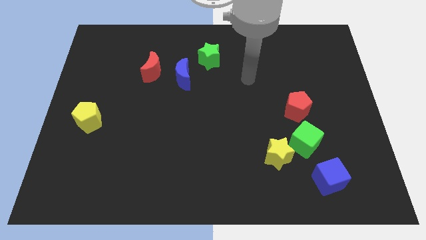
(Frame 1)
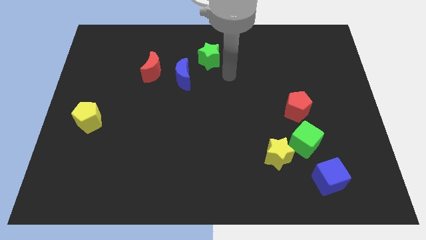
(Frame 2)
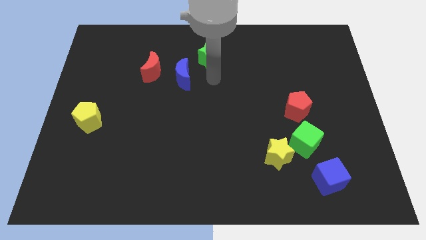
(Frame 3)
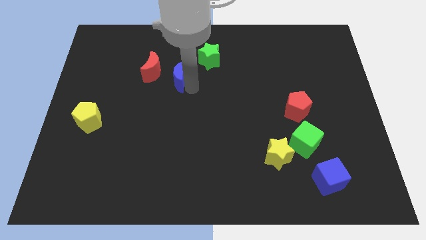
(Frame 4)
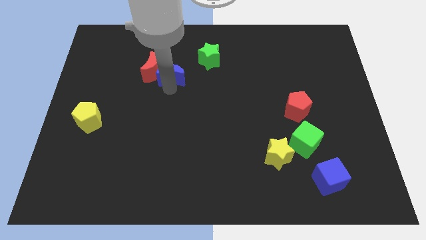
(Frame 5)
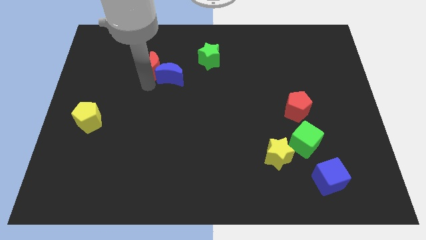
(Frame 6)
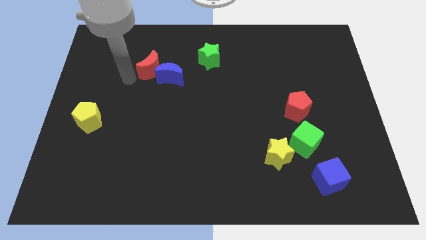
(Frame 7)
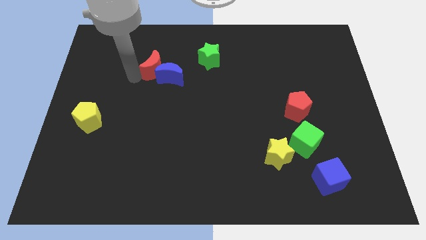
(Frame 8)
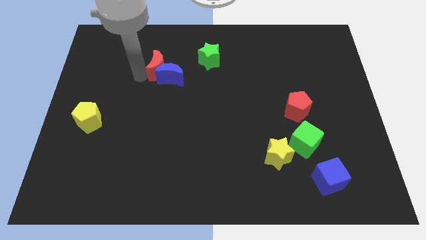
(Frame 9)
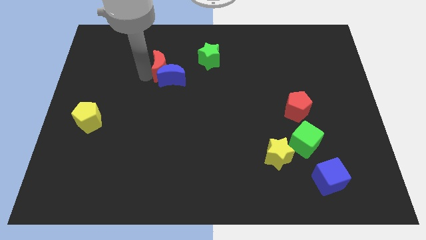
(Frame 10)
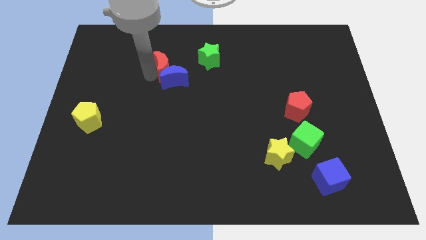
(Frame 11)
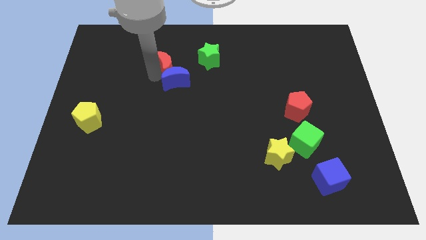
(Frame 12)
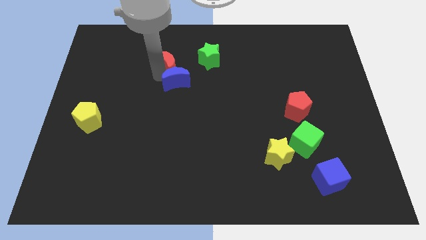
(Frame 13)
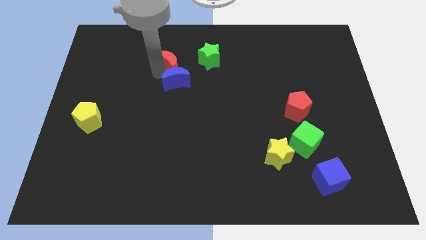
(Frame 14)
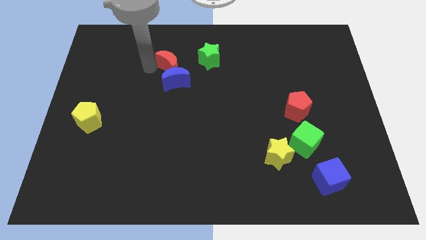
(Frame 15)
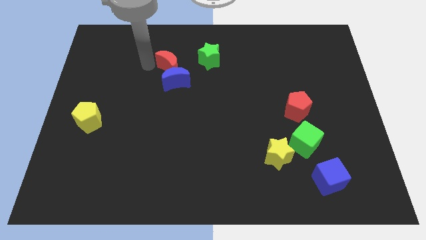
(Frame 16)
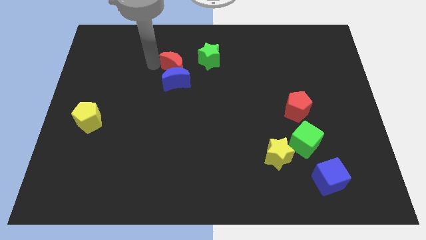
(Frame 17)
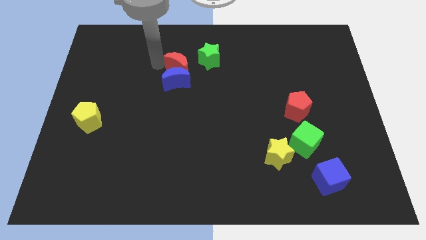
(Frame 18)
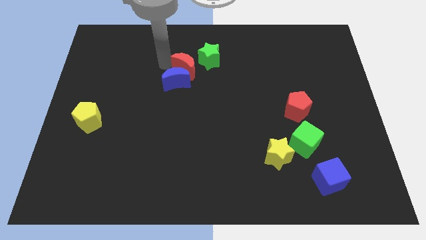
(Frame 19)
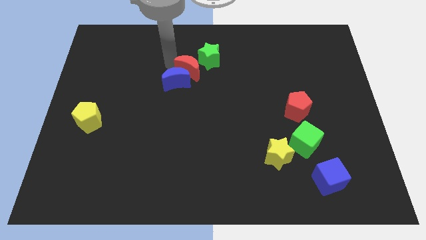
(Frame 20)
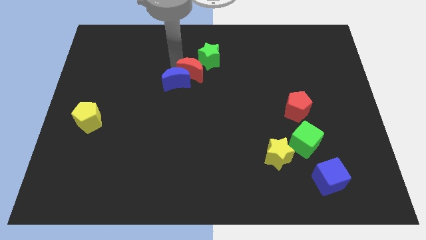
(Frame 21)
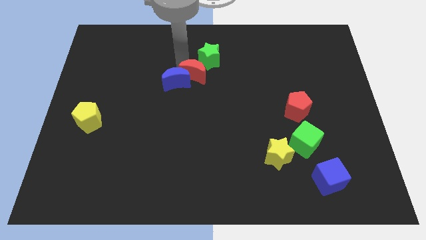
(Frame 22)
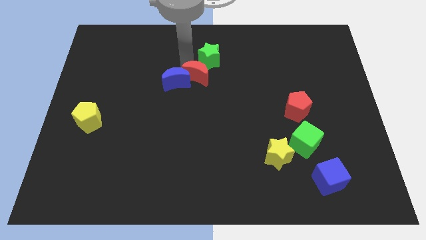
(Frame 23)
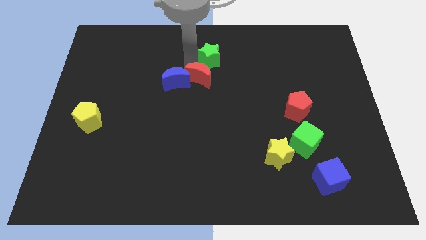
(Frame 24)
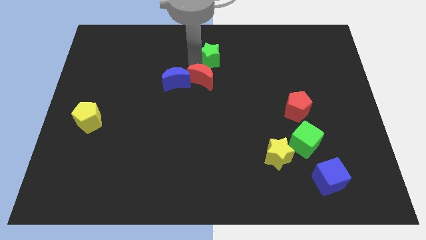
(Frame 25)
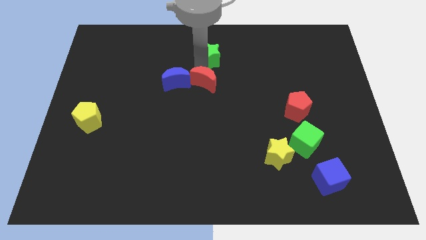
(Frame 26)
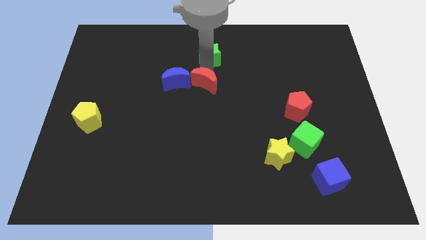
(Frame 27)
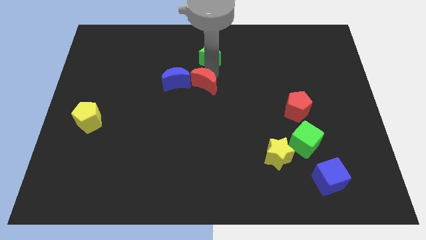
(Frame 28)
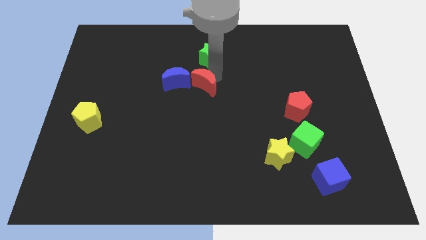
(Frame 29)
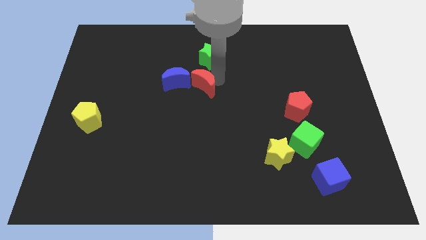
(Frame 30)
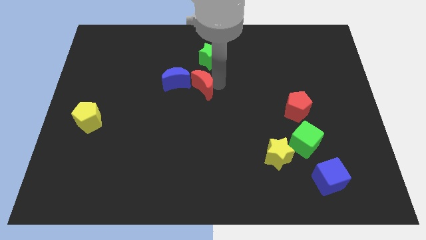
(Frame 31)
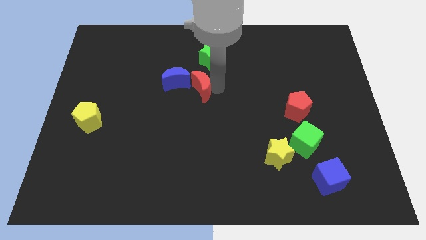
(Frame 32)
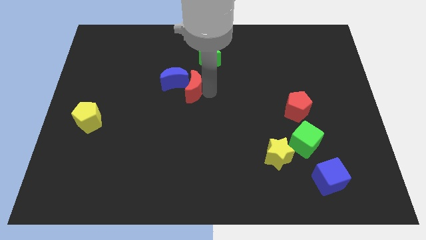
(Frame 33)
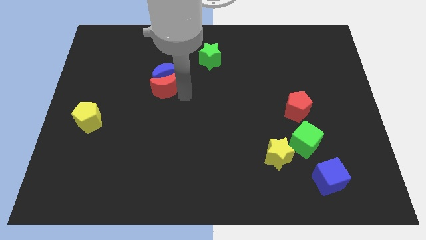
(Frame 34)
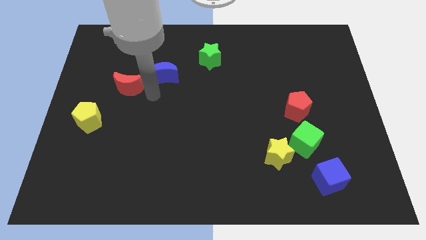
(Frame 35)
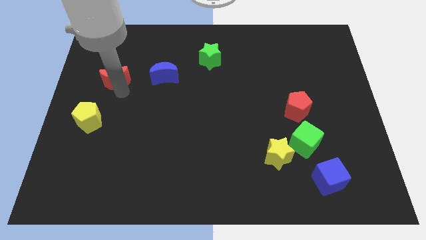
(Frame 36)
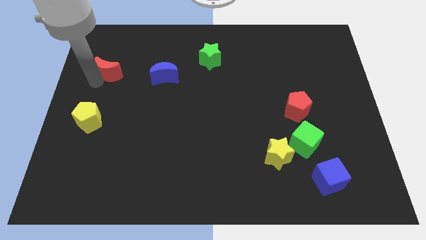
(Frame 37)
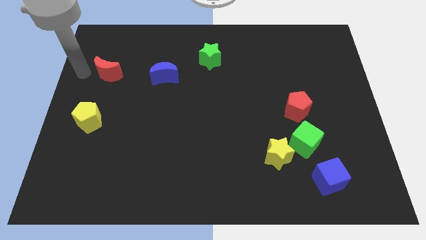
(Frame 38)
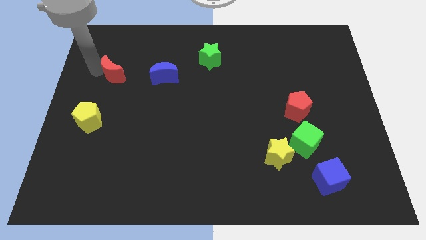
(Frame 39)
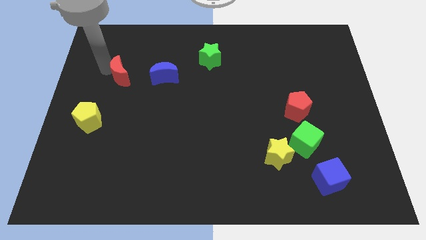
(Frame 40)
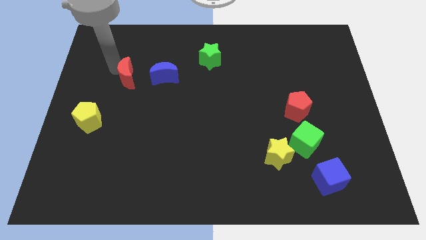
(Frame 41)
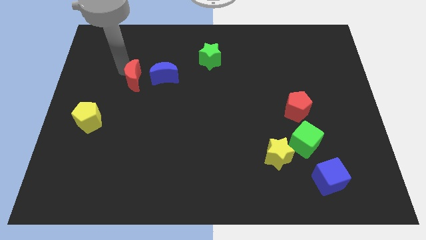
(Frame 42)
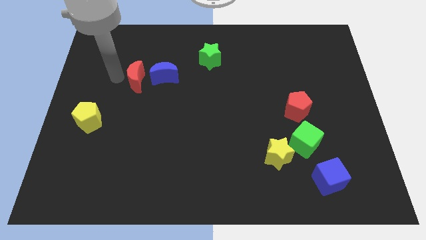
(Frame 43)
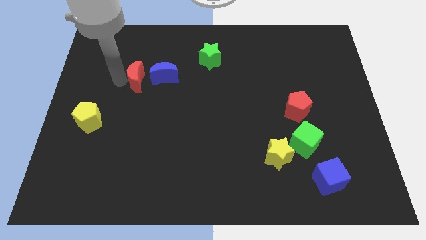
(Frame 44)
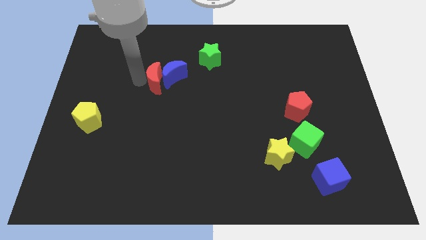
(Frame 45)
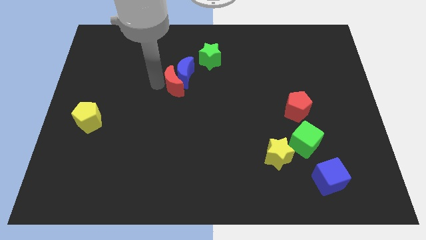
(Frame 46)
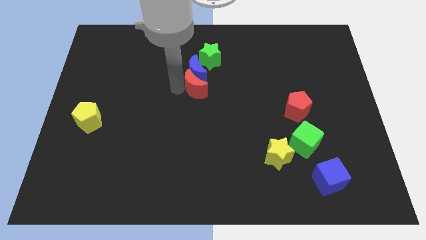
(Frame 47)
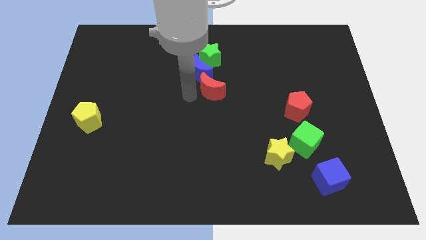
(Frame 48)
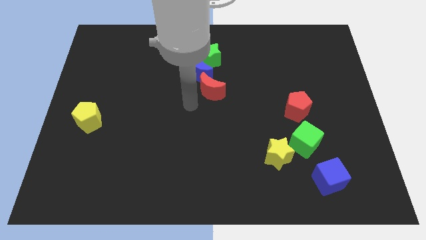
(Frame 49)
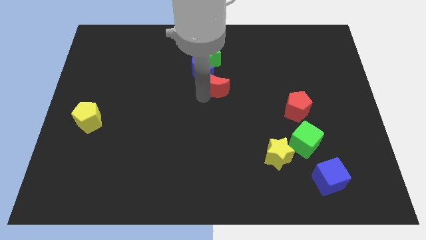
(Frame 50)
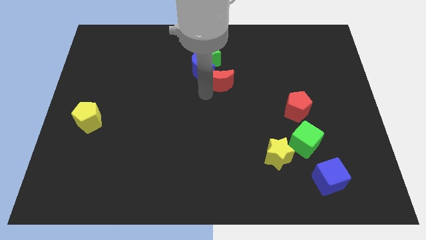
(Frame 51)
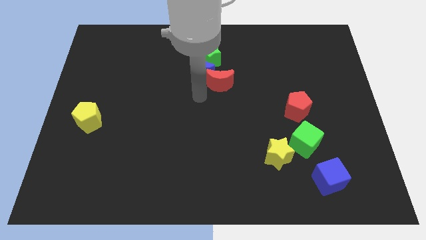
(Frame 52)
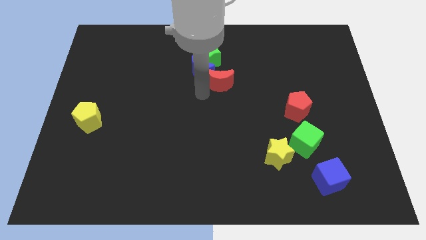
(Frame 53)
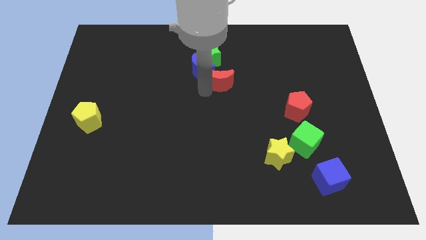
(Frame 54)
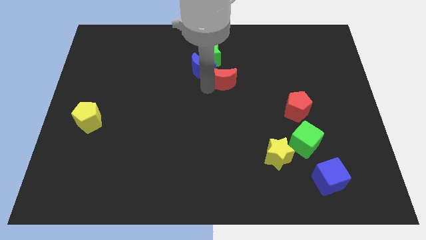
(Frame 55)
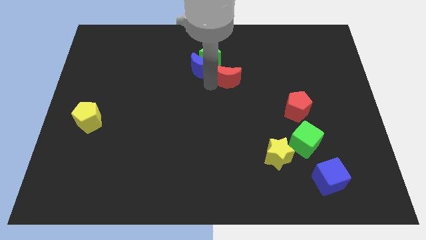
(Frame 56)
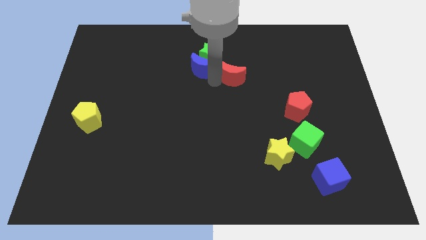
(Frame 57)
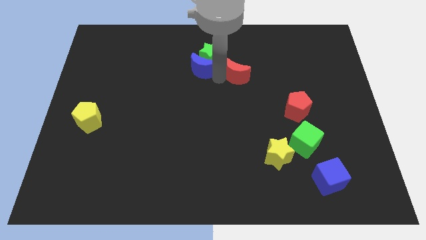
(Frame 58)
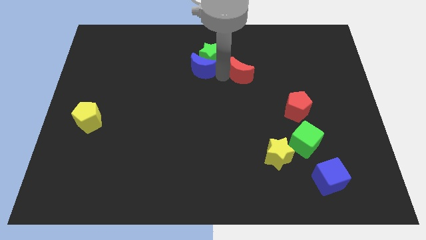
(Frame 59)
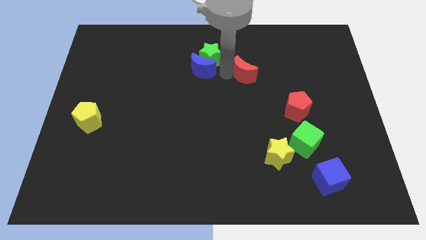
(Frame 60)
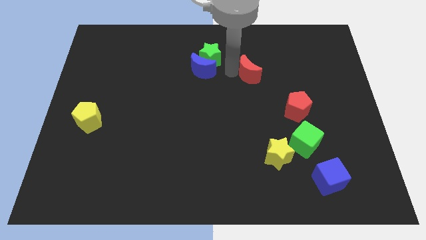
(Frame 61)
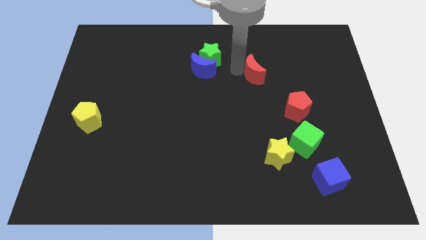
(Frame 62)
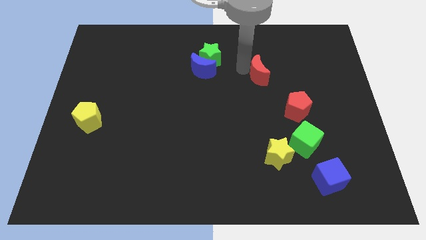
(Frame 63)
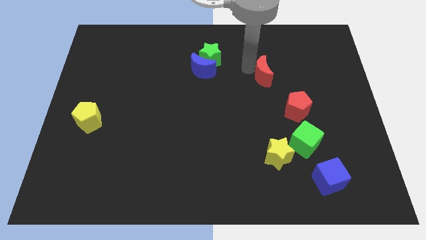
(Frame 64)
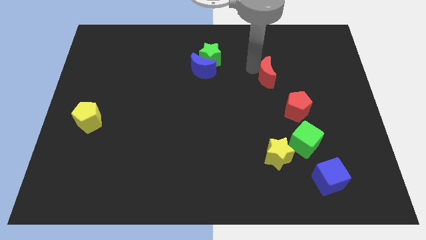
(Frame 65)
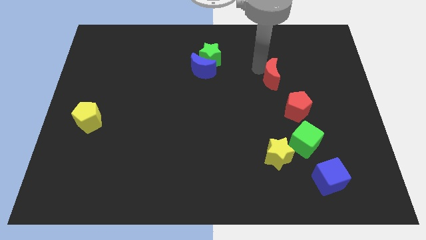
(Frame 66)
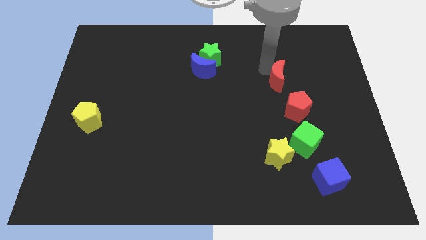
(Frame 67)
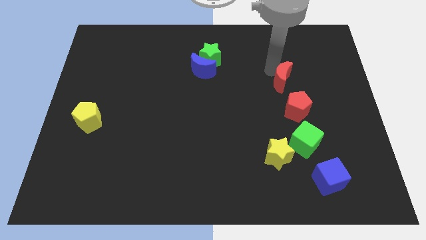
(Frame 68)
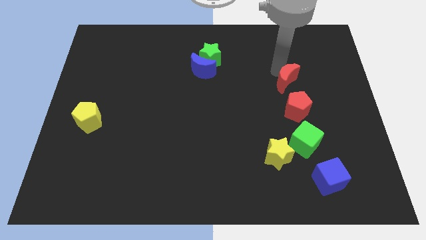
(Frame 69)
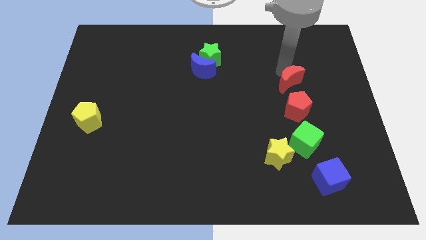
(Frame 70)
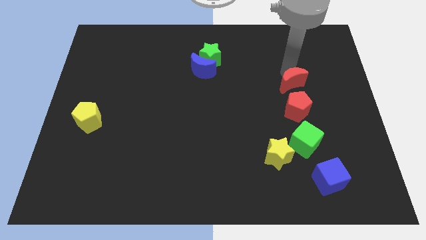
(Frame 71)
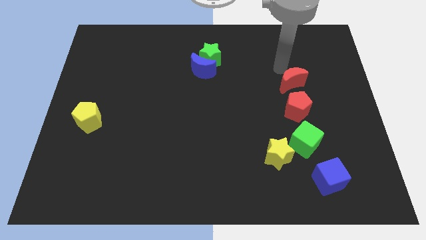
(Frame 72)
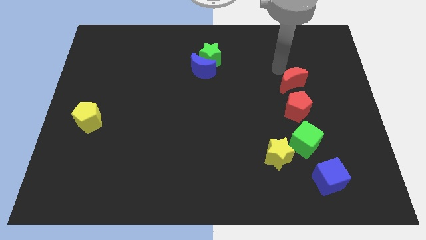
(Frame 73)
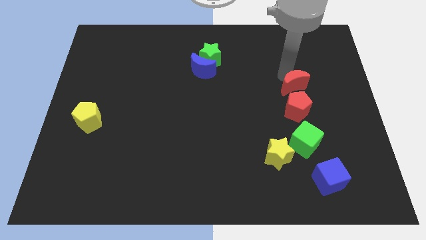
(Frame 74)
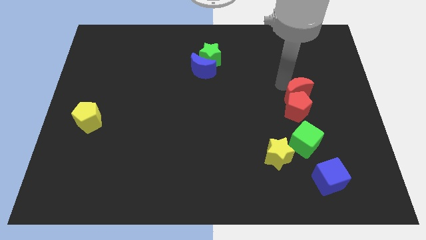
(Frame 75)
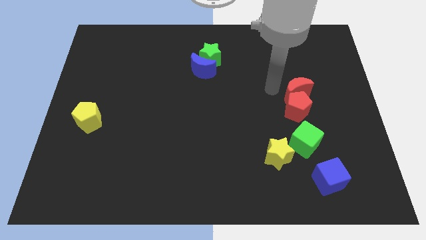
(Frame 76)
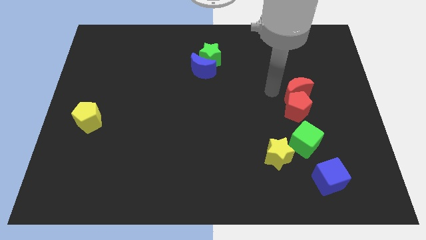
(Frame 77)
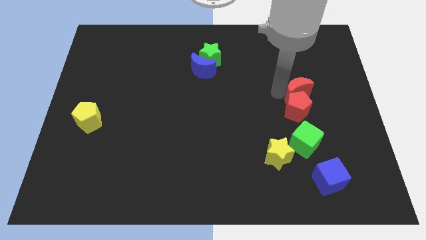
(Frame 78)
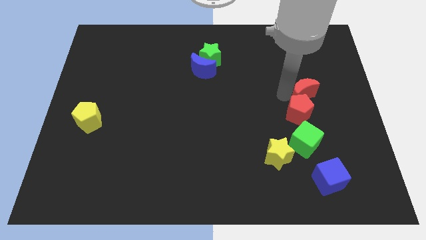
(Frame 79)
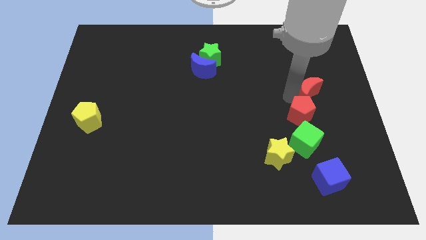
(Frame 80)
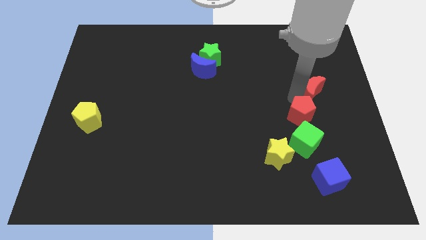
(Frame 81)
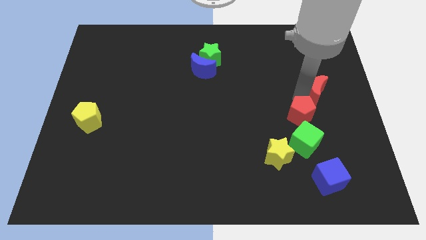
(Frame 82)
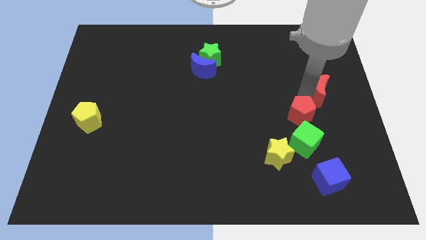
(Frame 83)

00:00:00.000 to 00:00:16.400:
push the red moon to the right side
